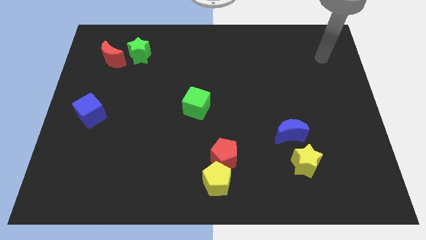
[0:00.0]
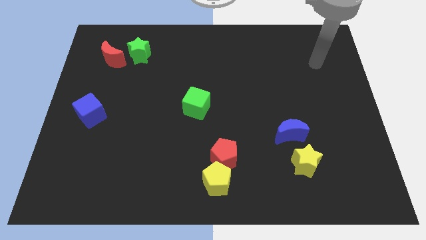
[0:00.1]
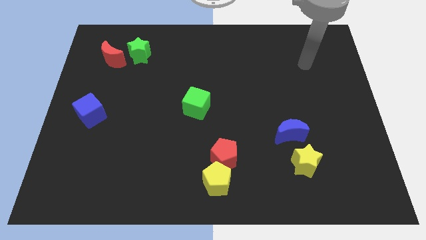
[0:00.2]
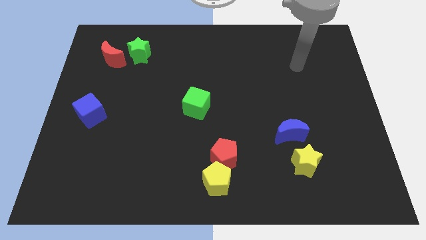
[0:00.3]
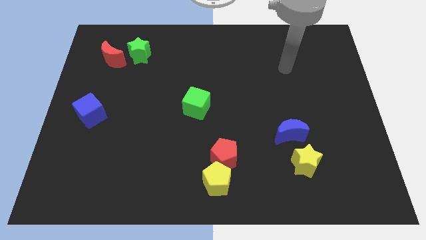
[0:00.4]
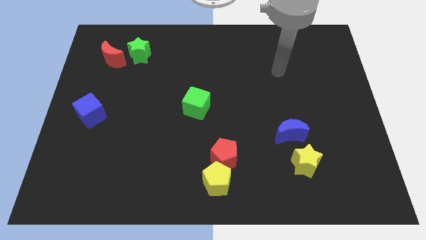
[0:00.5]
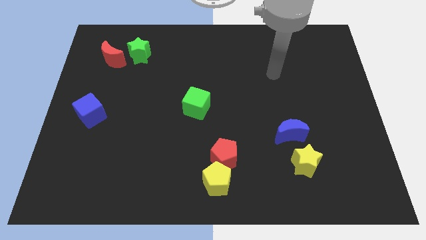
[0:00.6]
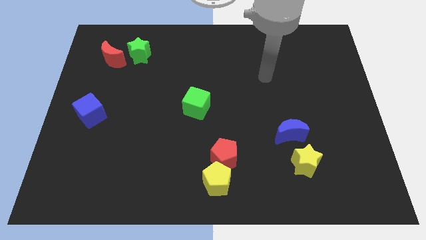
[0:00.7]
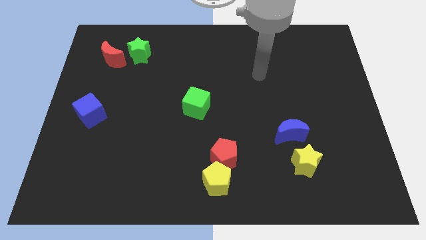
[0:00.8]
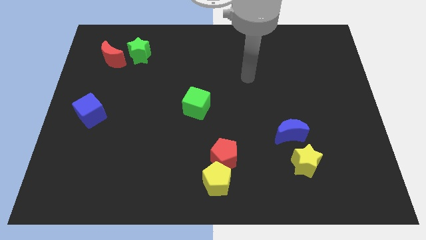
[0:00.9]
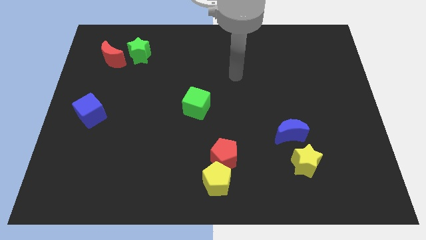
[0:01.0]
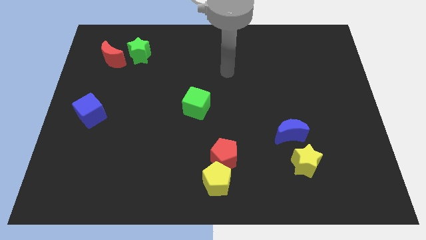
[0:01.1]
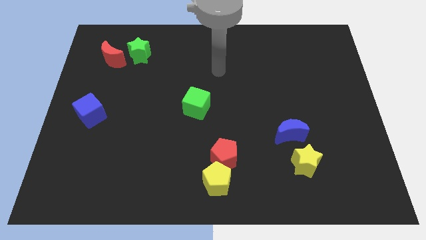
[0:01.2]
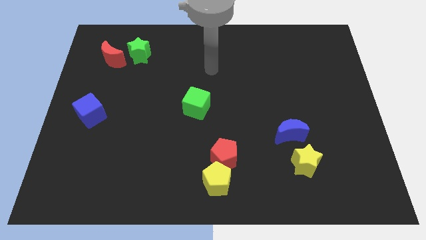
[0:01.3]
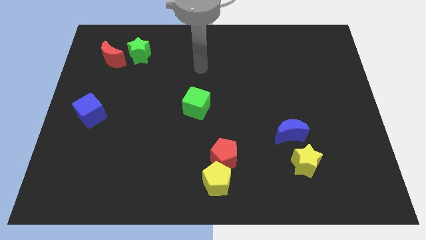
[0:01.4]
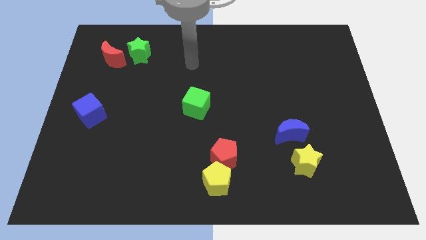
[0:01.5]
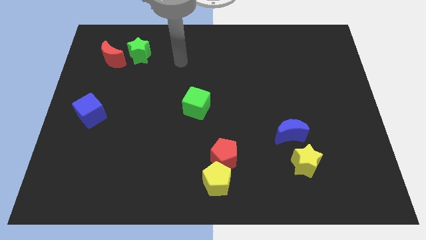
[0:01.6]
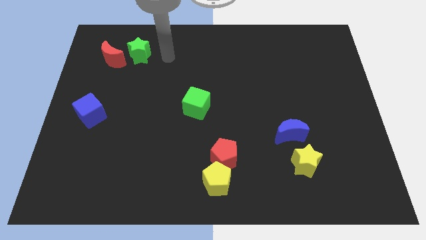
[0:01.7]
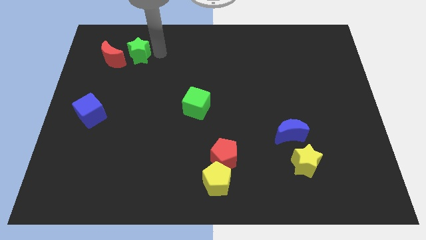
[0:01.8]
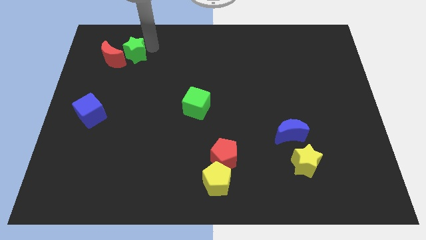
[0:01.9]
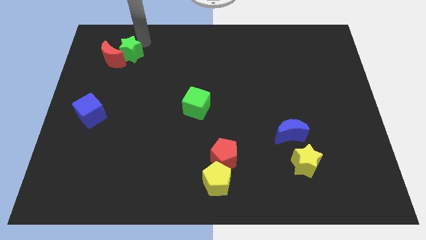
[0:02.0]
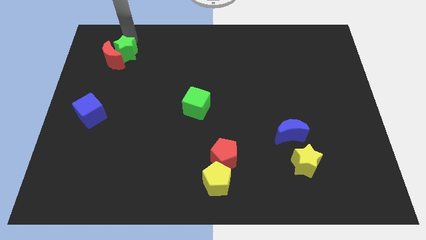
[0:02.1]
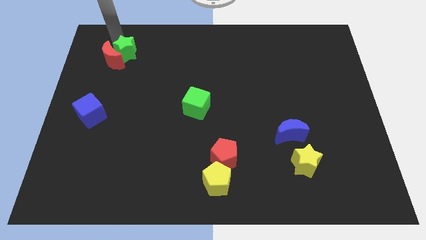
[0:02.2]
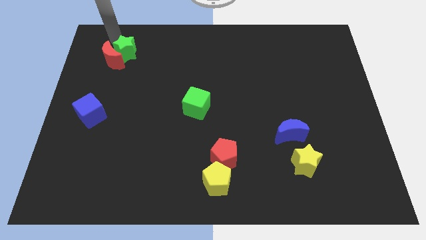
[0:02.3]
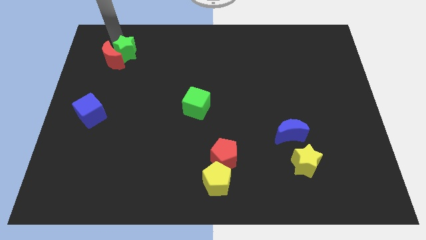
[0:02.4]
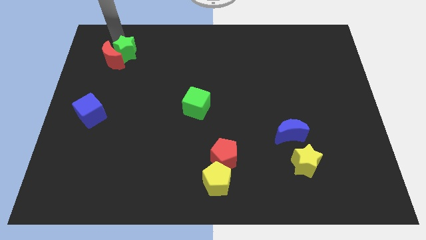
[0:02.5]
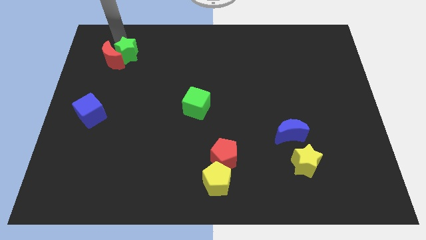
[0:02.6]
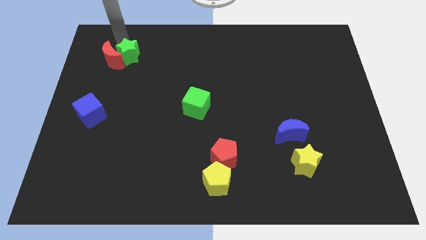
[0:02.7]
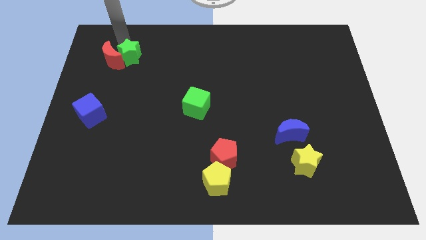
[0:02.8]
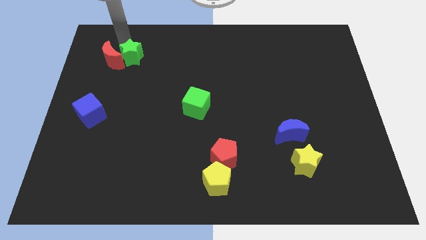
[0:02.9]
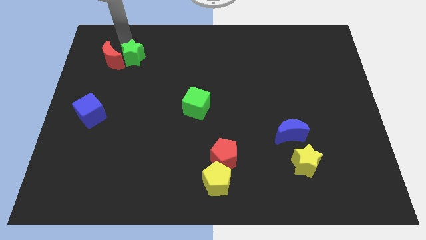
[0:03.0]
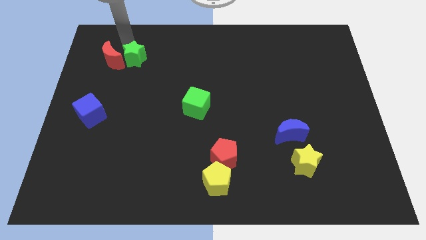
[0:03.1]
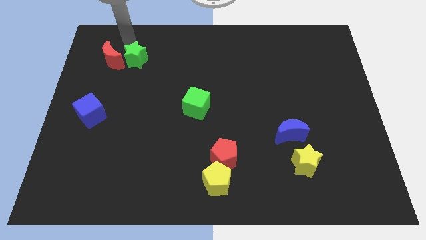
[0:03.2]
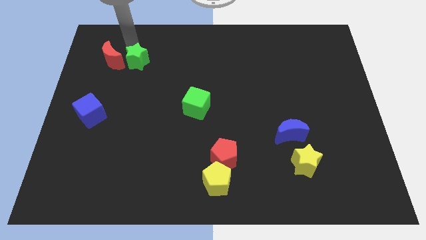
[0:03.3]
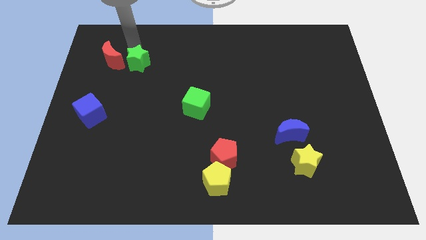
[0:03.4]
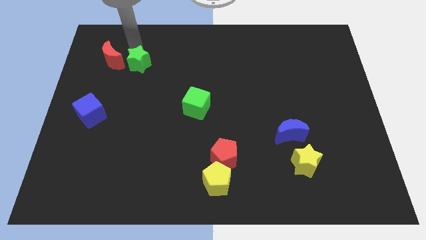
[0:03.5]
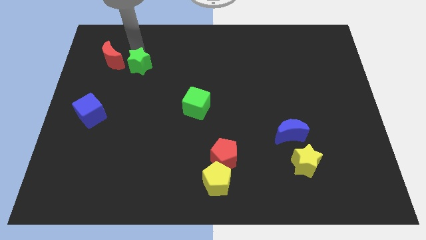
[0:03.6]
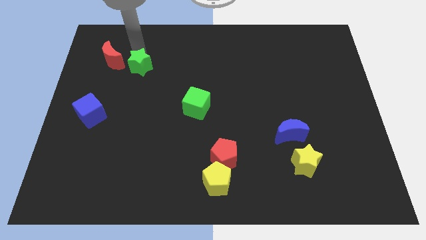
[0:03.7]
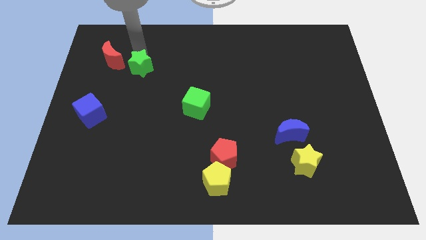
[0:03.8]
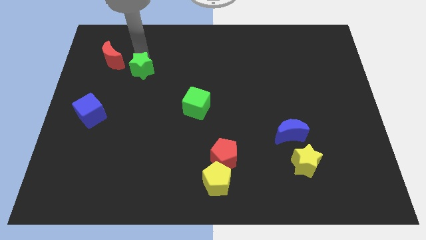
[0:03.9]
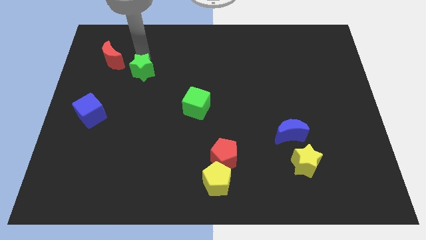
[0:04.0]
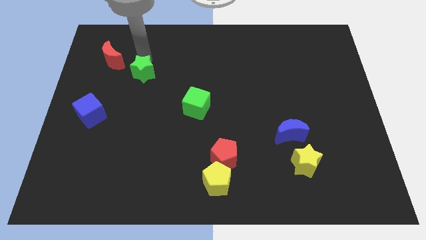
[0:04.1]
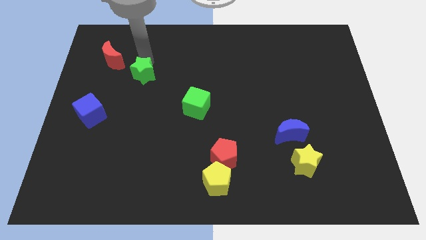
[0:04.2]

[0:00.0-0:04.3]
slightly slide the green star down

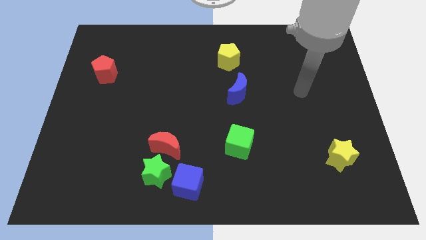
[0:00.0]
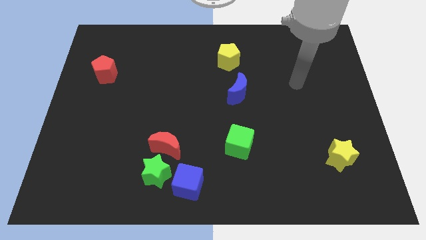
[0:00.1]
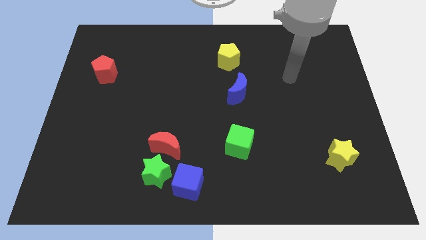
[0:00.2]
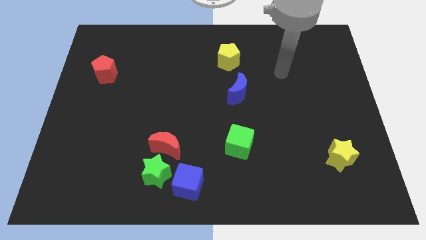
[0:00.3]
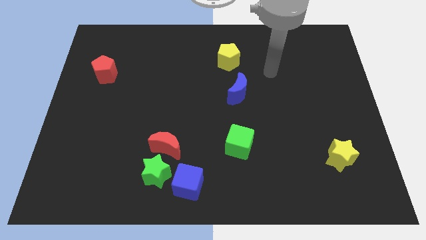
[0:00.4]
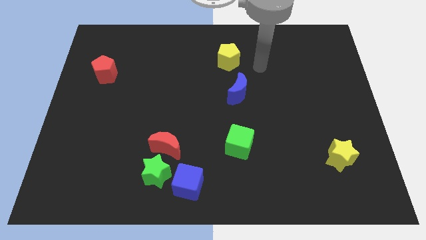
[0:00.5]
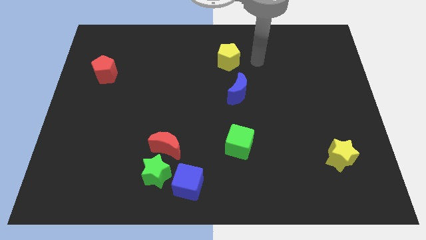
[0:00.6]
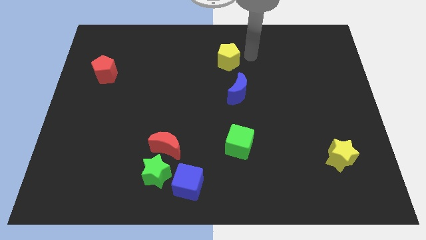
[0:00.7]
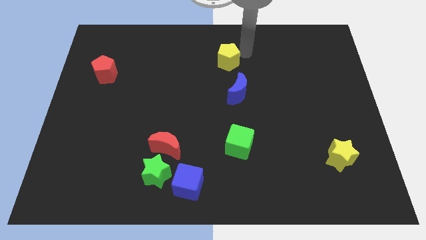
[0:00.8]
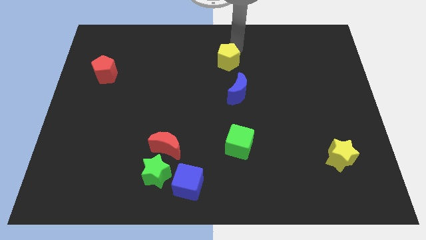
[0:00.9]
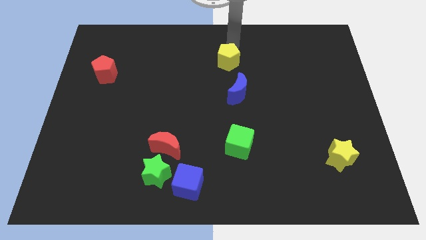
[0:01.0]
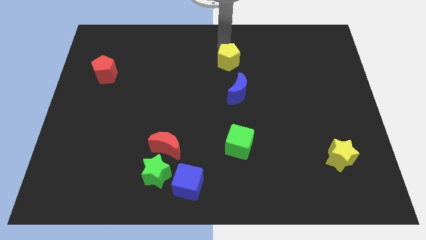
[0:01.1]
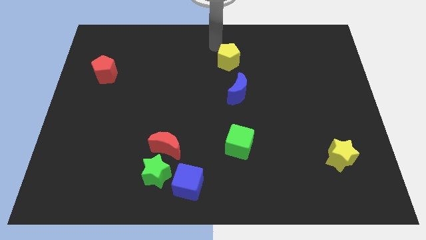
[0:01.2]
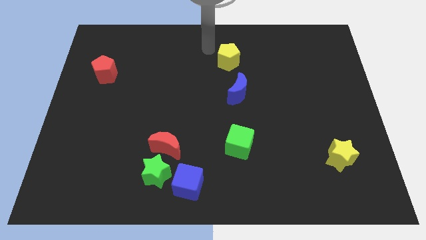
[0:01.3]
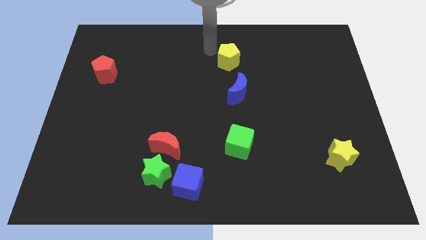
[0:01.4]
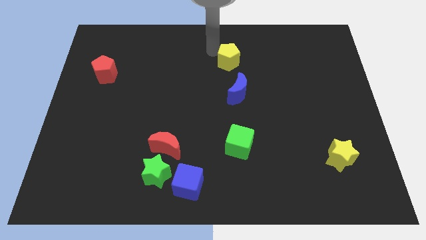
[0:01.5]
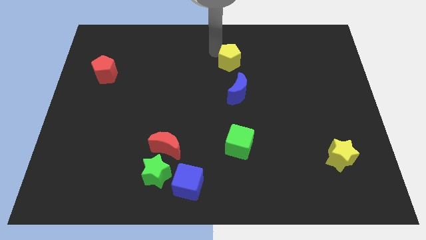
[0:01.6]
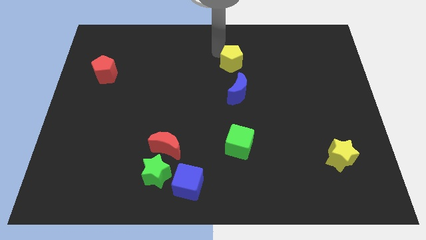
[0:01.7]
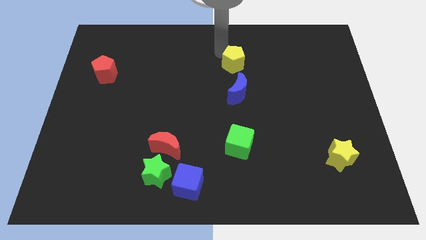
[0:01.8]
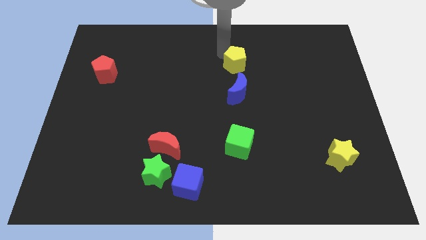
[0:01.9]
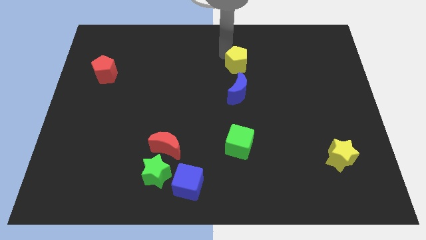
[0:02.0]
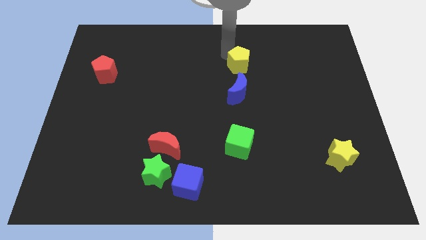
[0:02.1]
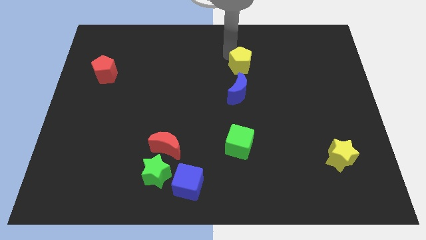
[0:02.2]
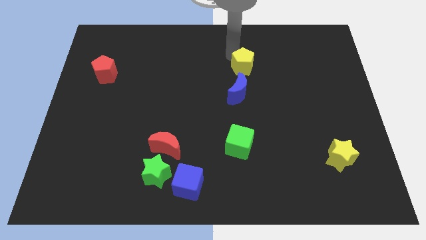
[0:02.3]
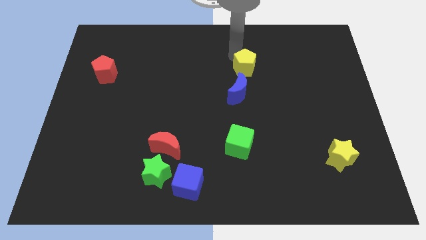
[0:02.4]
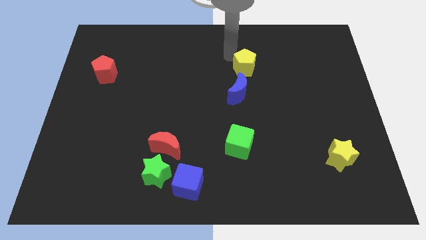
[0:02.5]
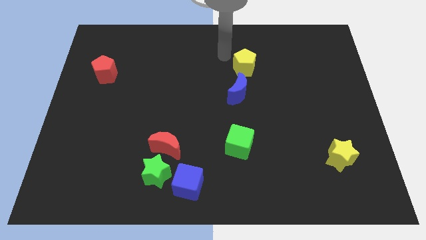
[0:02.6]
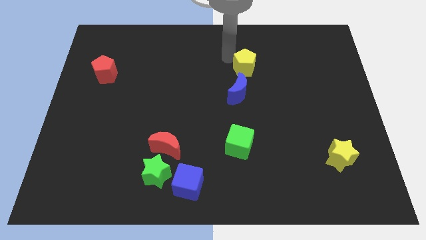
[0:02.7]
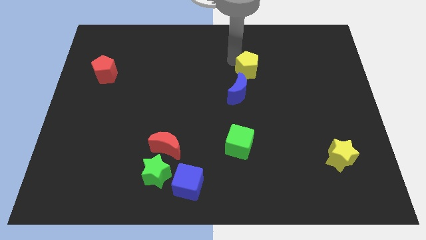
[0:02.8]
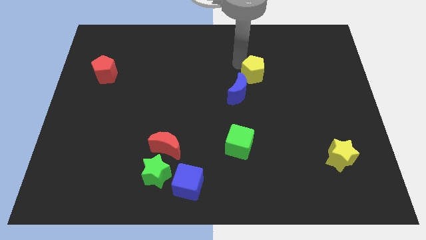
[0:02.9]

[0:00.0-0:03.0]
push the yellow pentagon slightly downwards and to the right diagonally

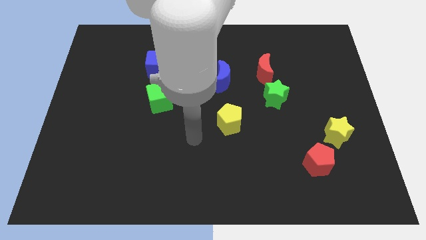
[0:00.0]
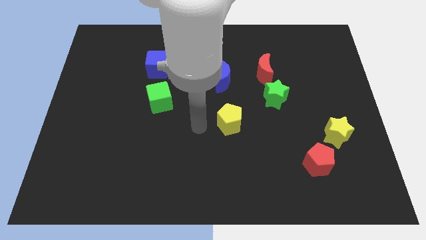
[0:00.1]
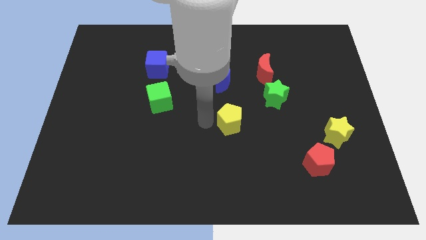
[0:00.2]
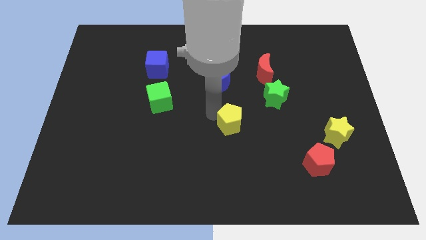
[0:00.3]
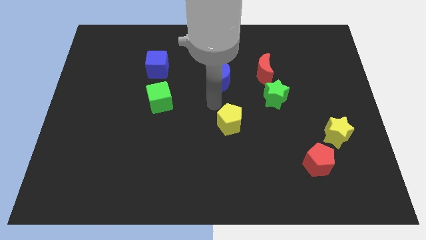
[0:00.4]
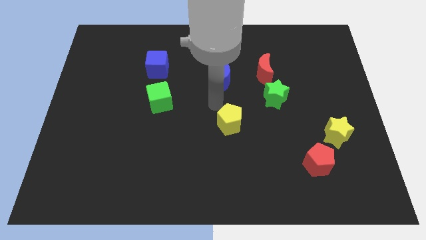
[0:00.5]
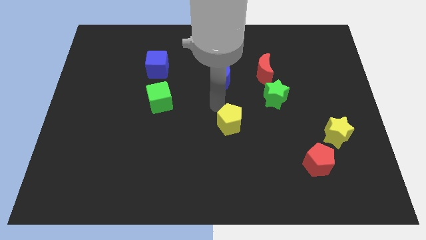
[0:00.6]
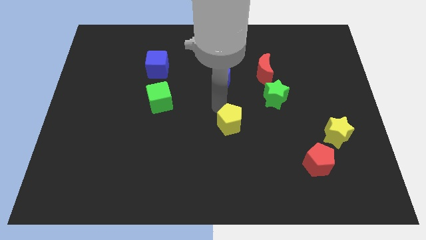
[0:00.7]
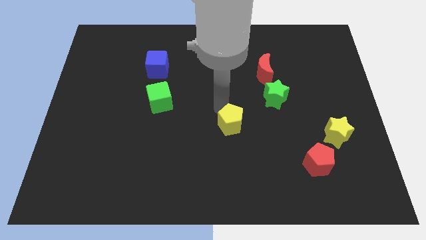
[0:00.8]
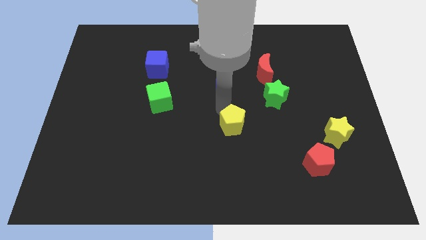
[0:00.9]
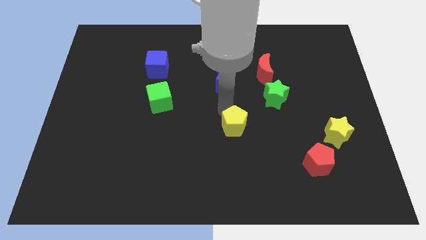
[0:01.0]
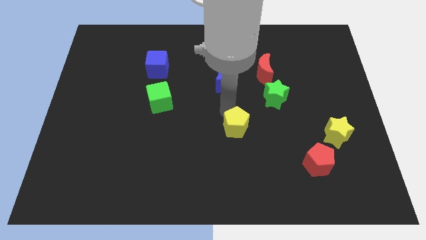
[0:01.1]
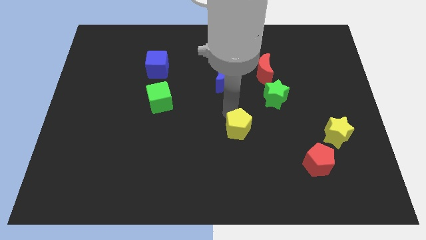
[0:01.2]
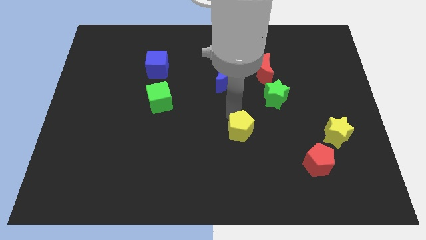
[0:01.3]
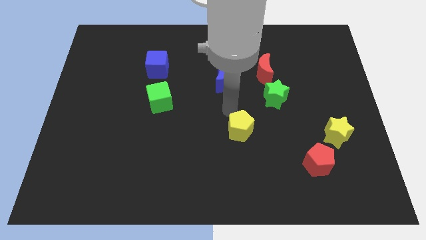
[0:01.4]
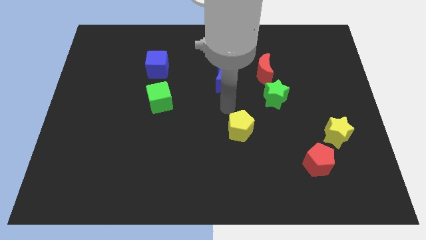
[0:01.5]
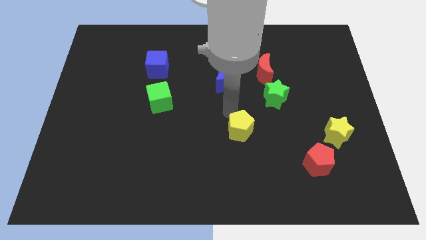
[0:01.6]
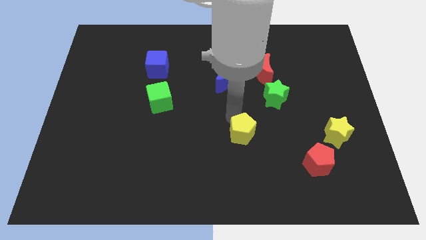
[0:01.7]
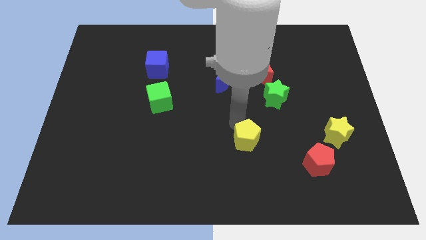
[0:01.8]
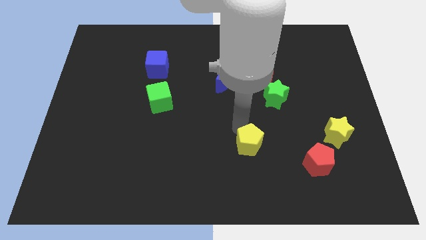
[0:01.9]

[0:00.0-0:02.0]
slide the yellow pentagon diagonally down and to the right a little
